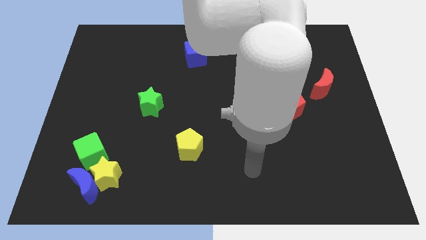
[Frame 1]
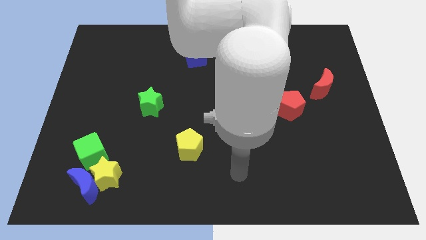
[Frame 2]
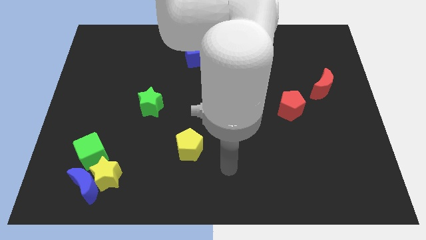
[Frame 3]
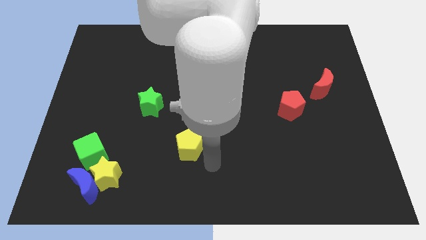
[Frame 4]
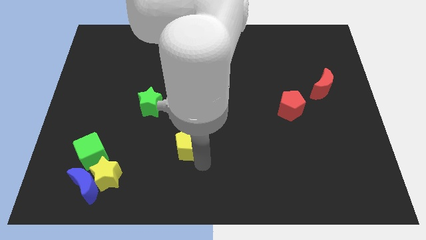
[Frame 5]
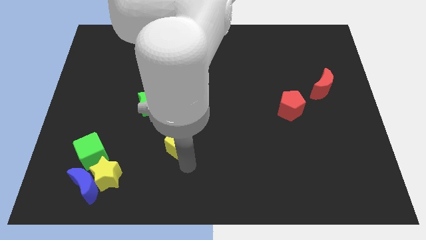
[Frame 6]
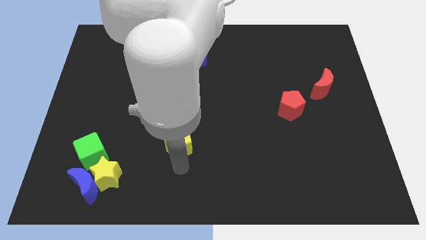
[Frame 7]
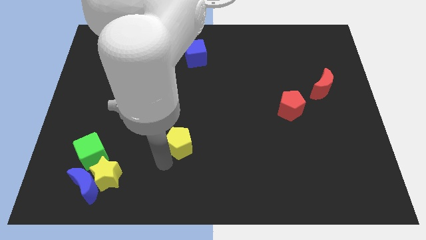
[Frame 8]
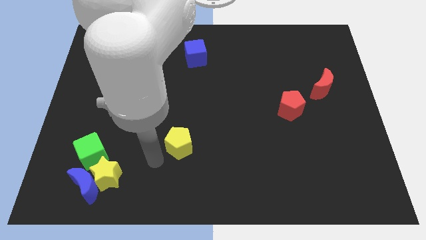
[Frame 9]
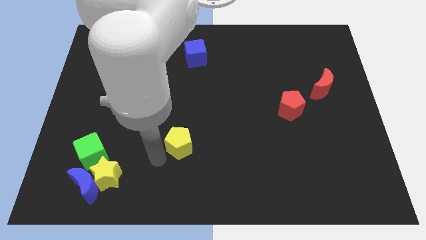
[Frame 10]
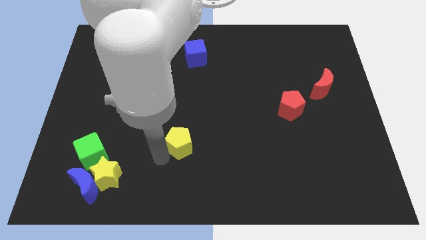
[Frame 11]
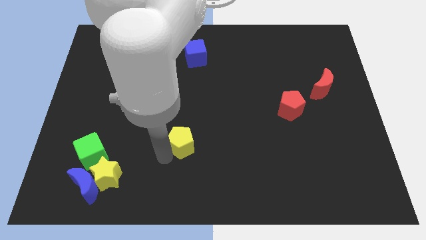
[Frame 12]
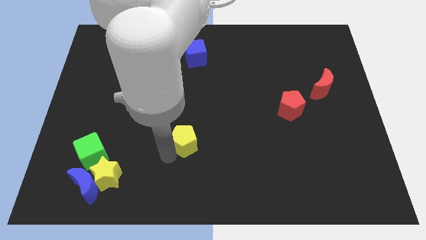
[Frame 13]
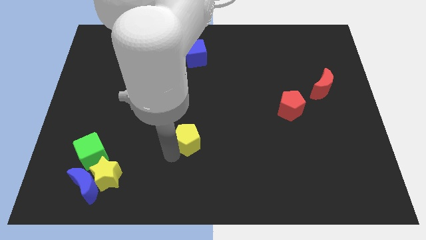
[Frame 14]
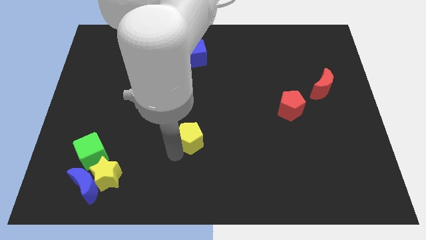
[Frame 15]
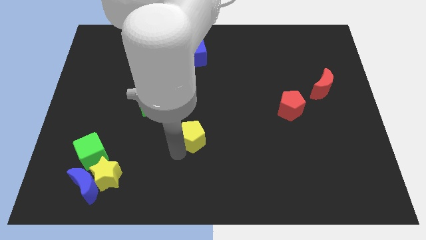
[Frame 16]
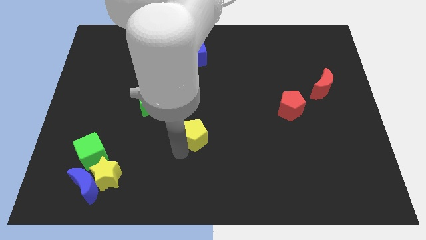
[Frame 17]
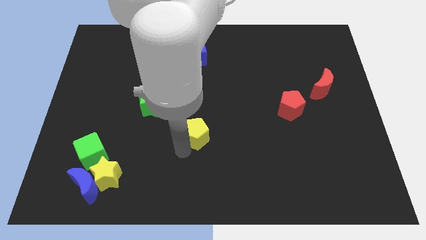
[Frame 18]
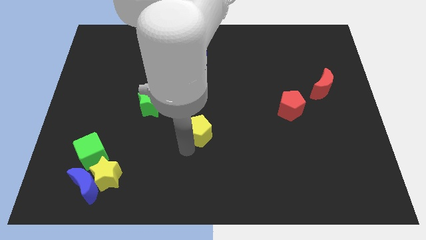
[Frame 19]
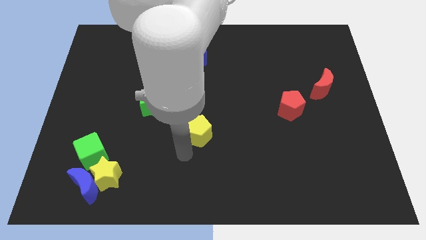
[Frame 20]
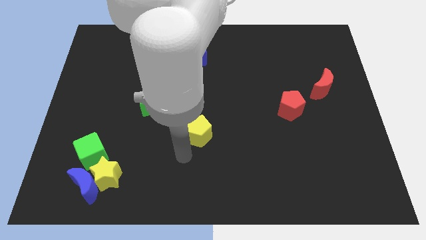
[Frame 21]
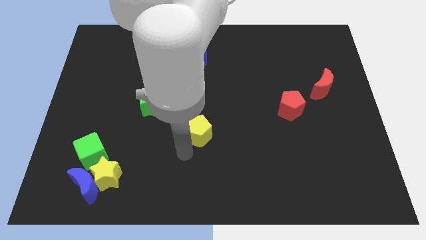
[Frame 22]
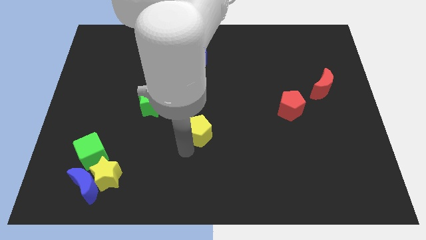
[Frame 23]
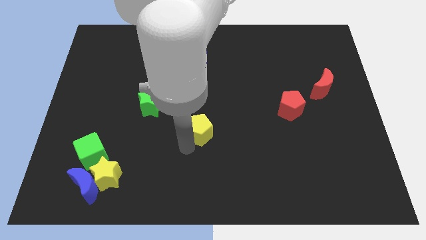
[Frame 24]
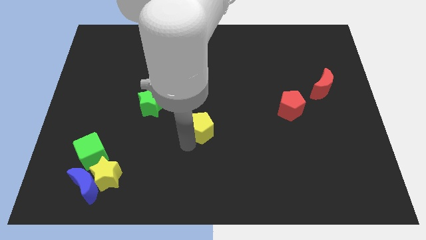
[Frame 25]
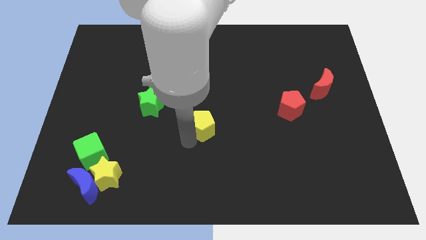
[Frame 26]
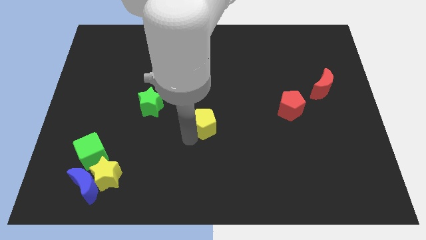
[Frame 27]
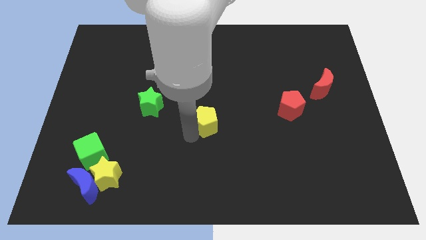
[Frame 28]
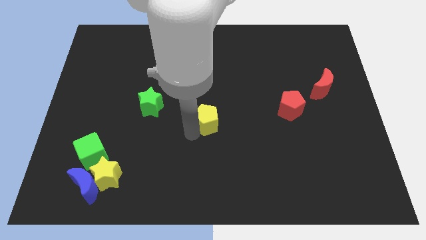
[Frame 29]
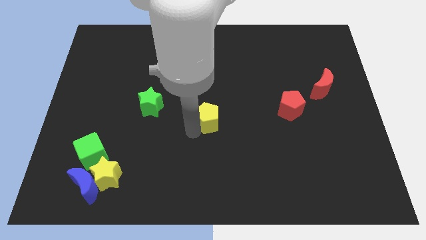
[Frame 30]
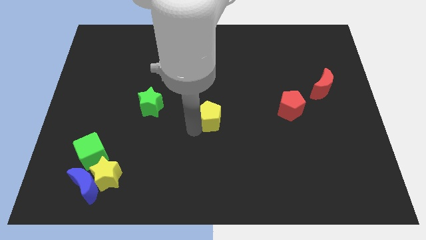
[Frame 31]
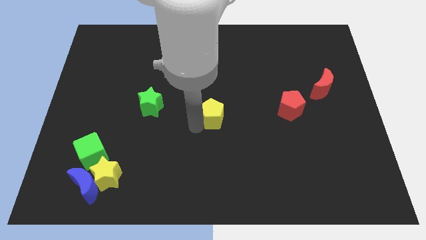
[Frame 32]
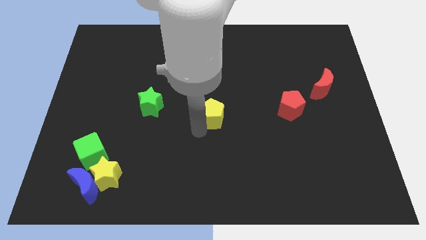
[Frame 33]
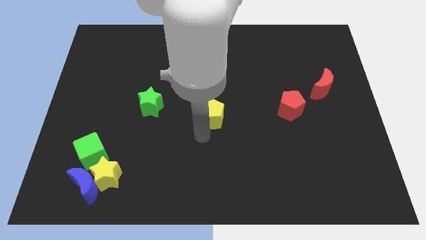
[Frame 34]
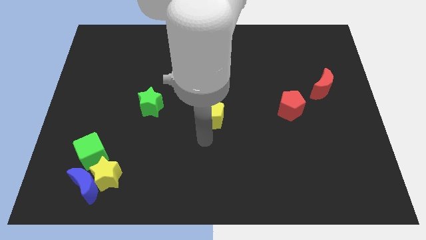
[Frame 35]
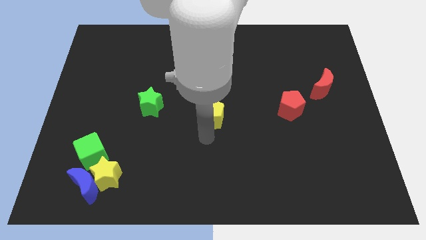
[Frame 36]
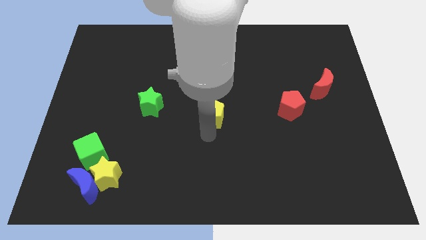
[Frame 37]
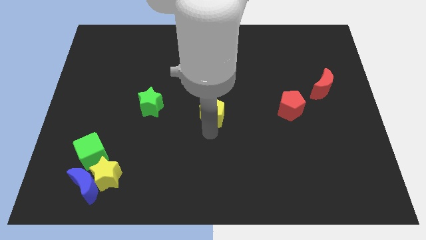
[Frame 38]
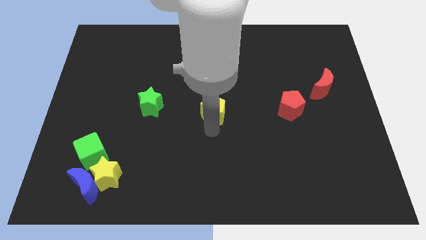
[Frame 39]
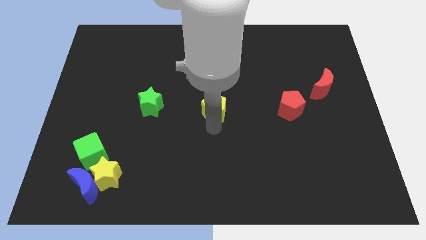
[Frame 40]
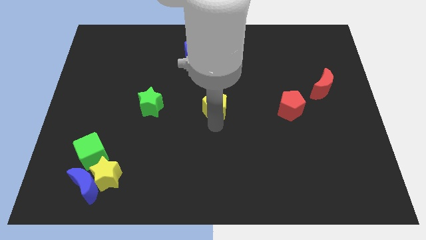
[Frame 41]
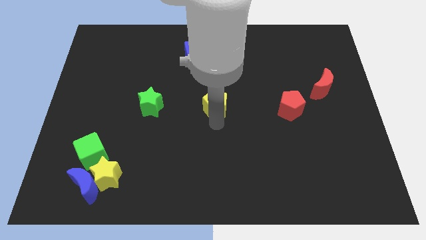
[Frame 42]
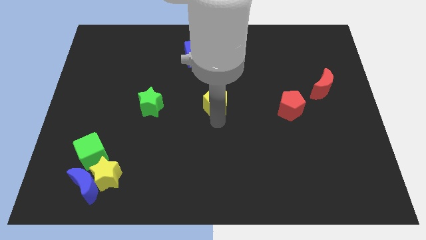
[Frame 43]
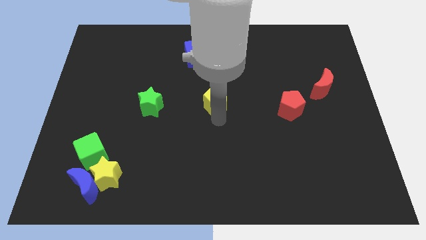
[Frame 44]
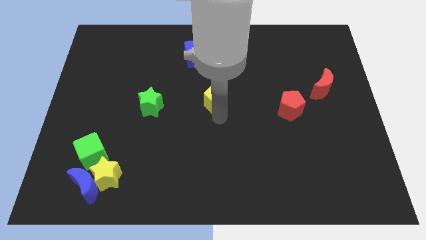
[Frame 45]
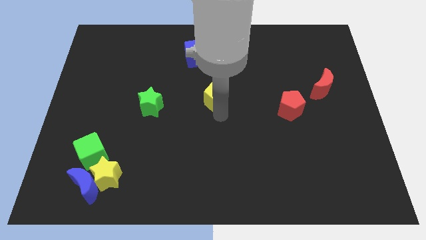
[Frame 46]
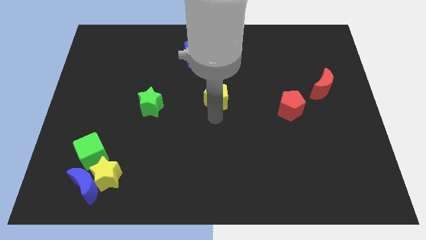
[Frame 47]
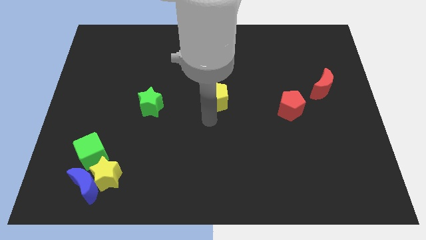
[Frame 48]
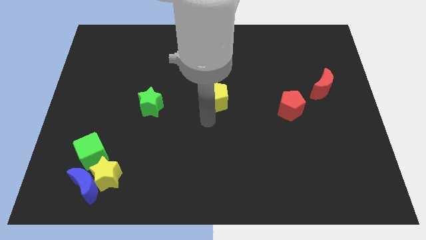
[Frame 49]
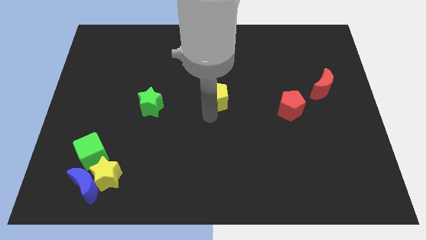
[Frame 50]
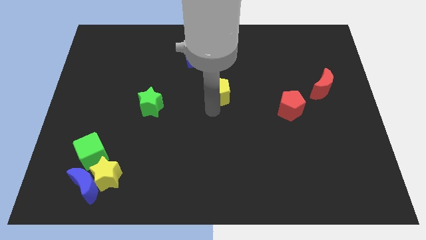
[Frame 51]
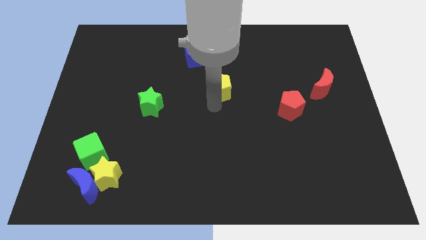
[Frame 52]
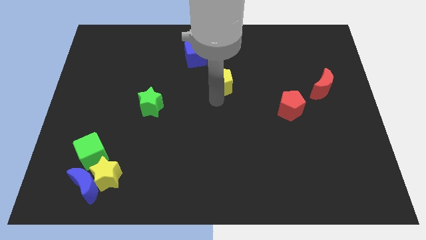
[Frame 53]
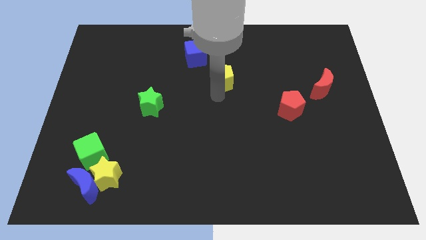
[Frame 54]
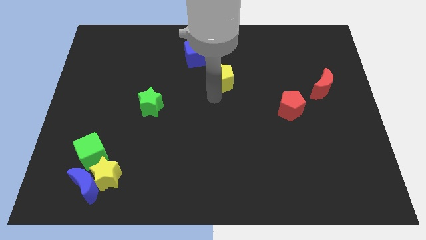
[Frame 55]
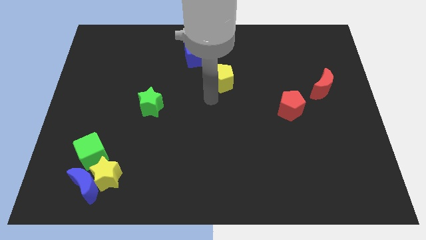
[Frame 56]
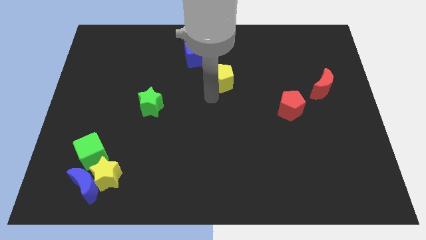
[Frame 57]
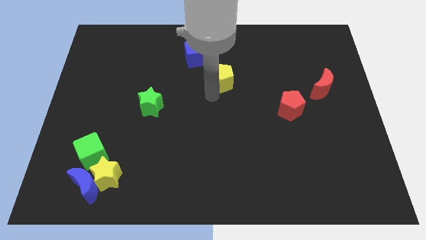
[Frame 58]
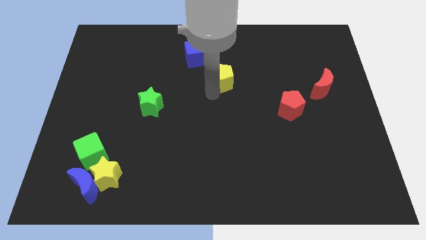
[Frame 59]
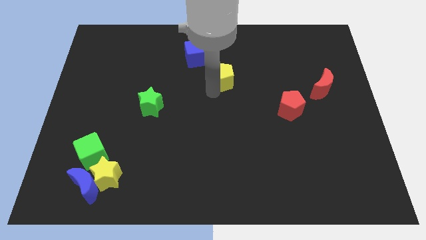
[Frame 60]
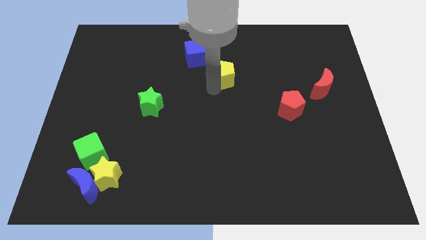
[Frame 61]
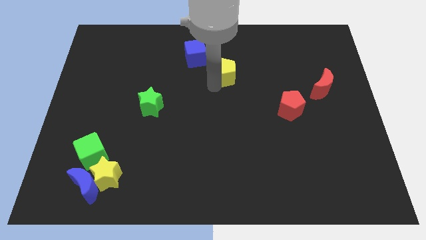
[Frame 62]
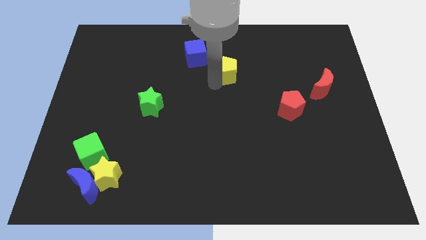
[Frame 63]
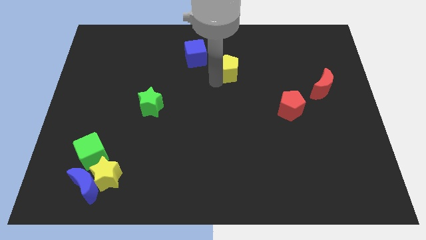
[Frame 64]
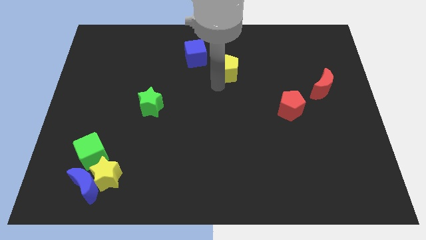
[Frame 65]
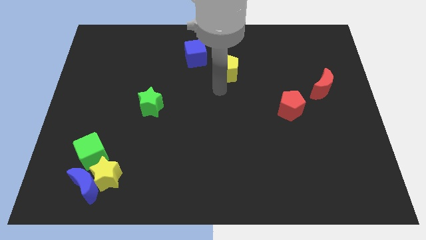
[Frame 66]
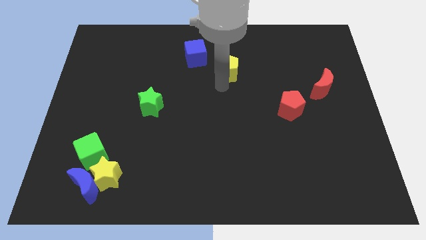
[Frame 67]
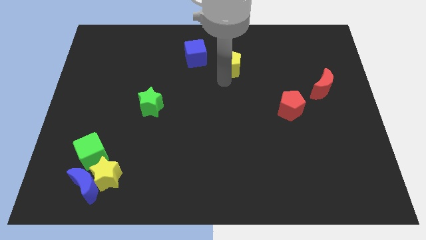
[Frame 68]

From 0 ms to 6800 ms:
push the yellow pentagon just right of the blue cube
